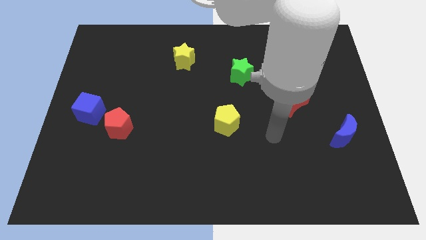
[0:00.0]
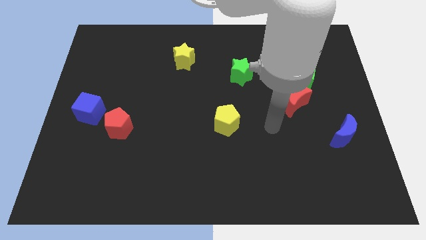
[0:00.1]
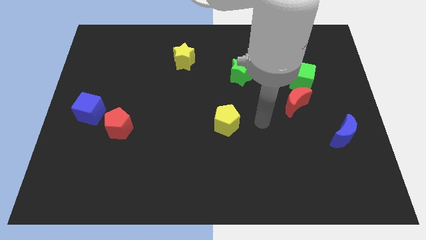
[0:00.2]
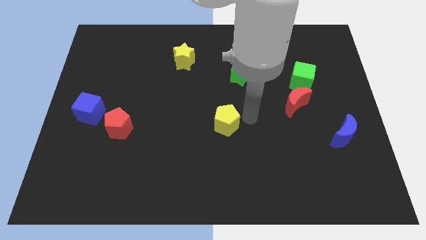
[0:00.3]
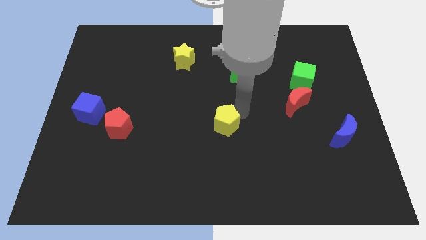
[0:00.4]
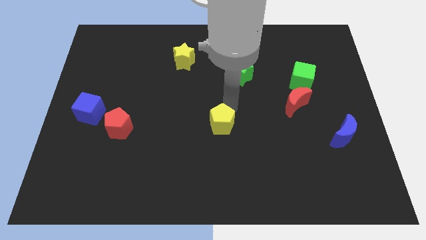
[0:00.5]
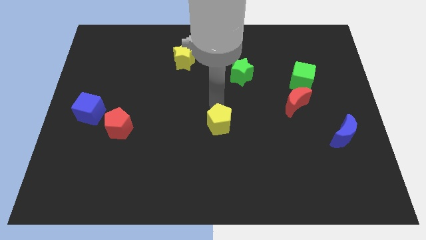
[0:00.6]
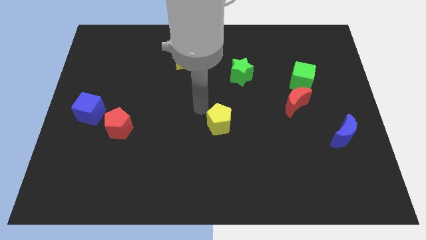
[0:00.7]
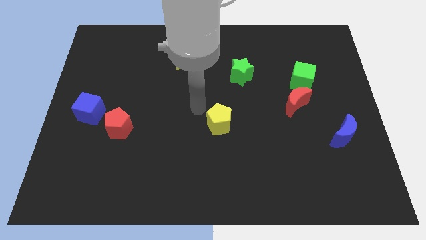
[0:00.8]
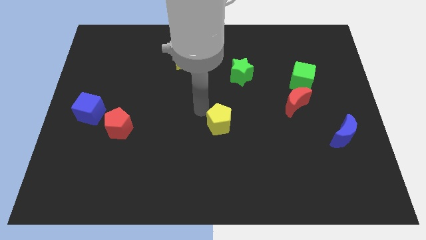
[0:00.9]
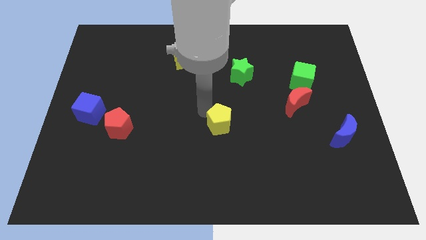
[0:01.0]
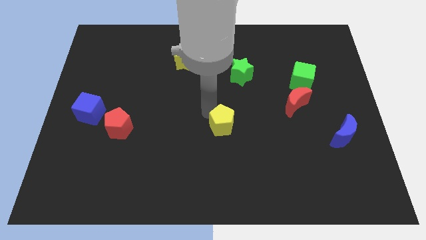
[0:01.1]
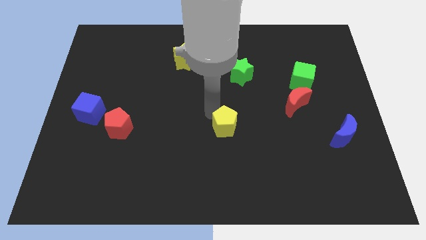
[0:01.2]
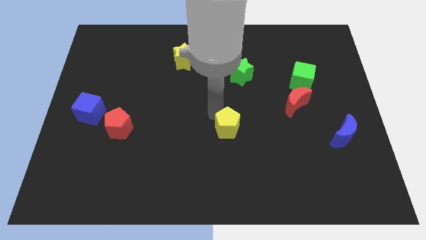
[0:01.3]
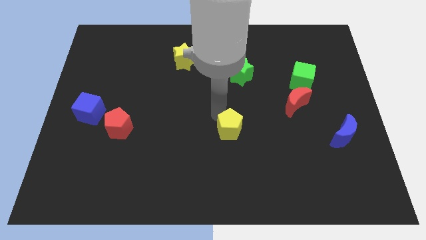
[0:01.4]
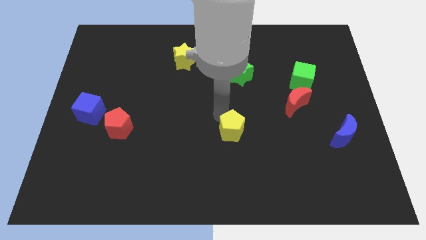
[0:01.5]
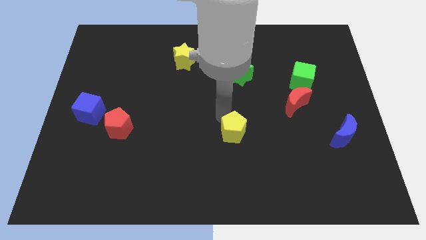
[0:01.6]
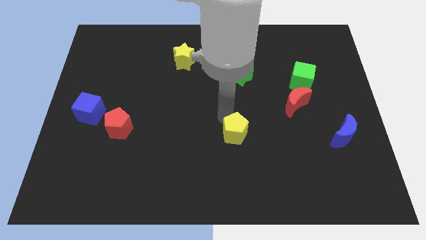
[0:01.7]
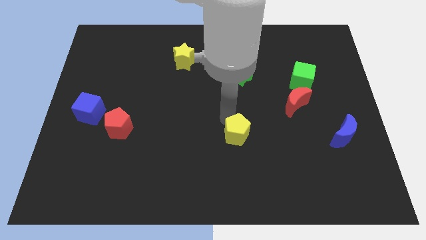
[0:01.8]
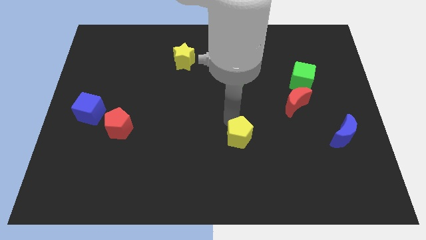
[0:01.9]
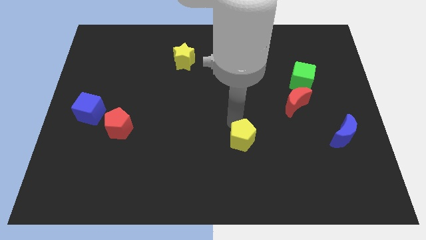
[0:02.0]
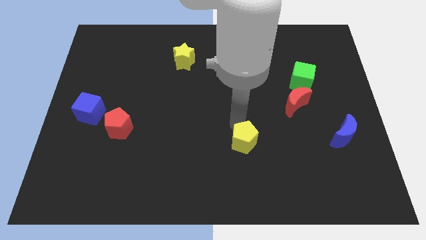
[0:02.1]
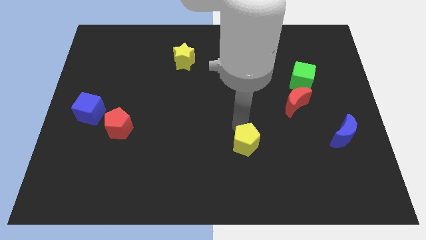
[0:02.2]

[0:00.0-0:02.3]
move the yellow pentagon a bit downwards and then to the right

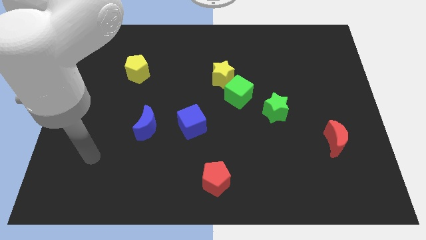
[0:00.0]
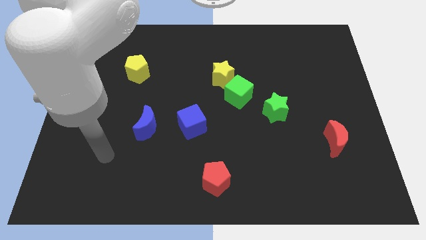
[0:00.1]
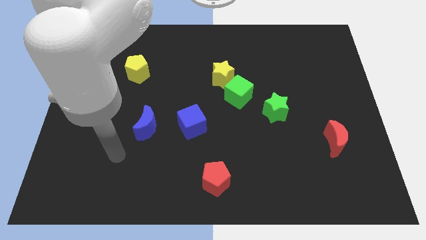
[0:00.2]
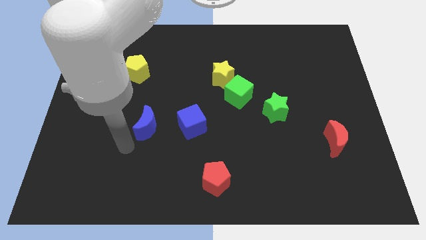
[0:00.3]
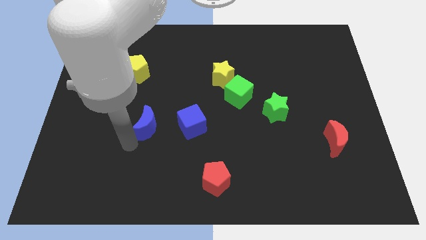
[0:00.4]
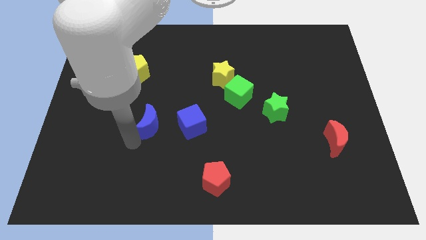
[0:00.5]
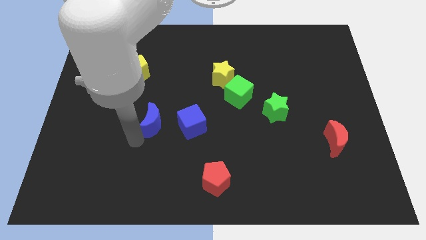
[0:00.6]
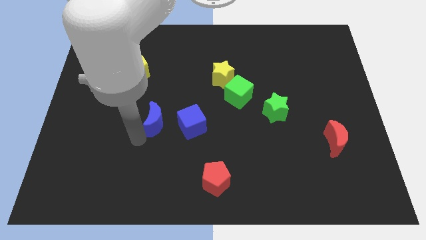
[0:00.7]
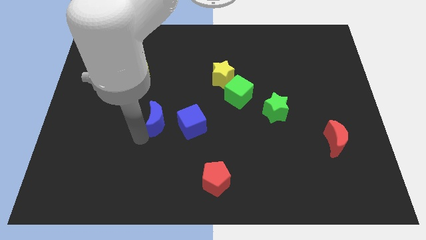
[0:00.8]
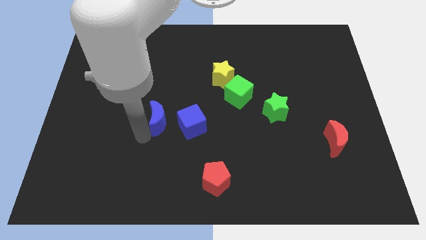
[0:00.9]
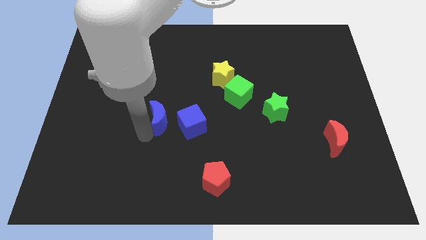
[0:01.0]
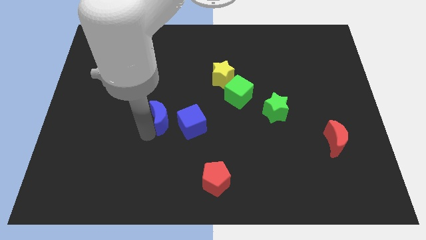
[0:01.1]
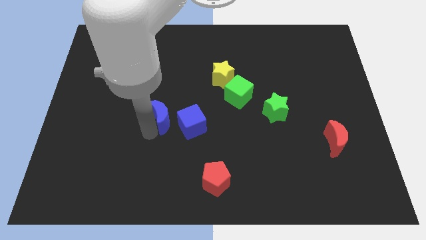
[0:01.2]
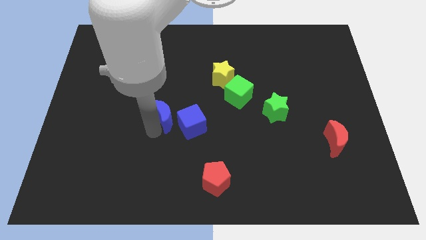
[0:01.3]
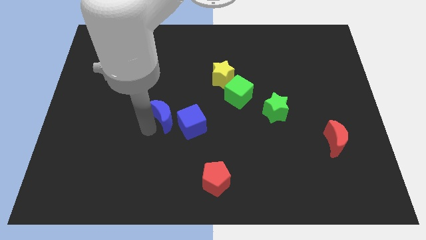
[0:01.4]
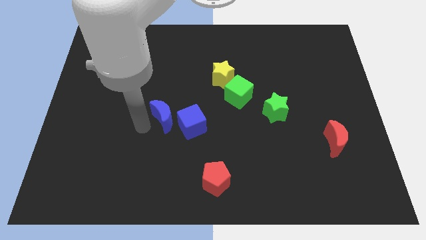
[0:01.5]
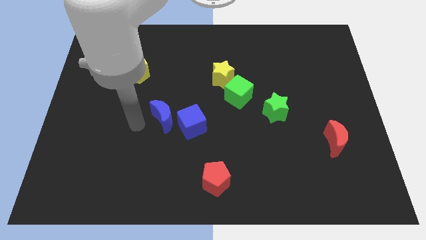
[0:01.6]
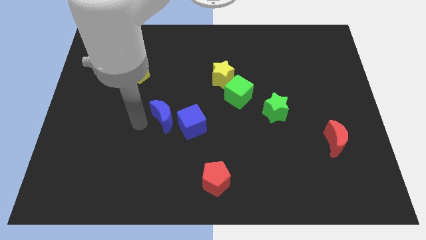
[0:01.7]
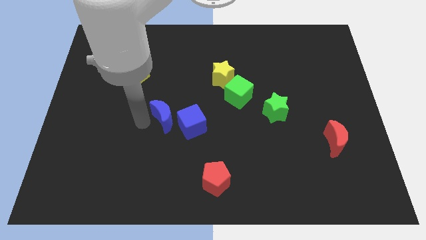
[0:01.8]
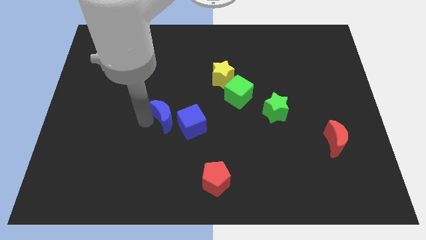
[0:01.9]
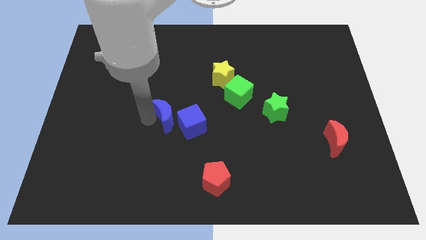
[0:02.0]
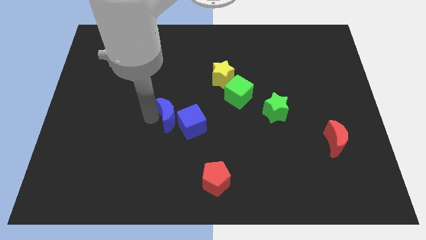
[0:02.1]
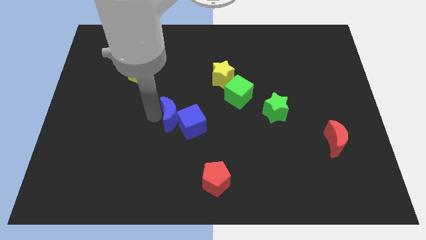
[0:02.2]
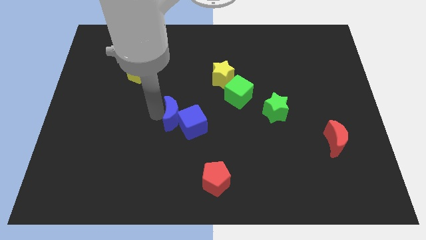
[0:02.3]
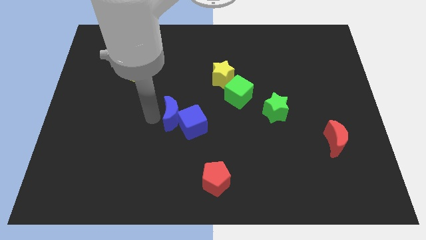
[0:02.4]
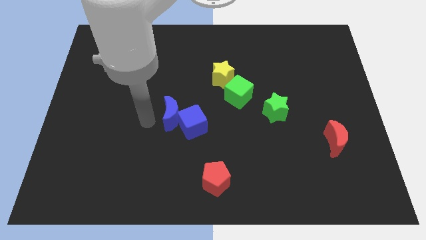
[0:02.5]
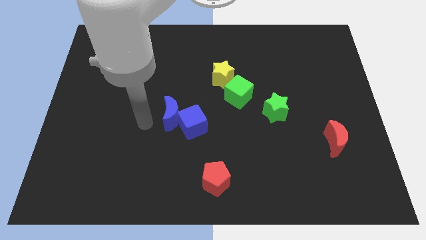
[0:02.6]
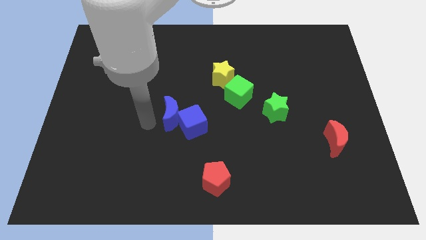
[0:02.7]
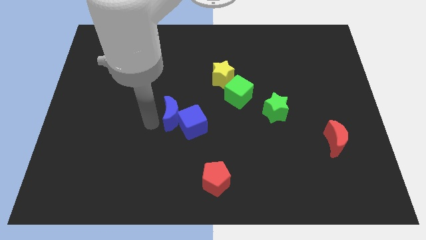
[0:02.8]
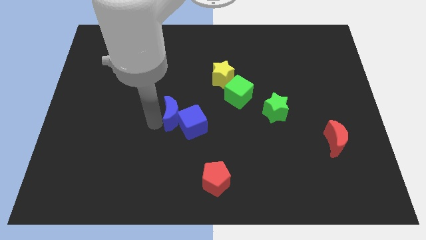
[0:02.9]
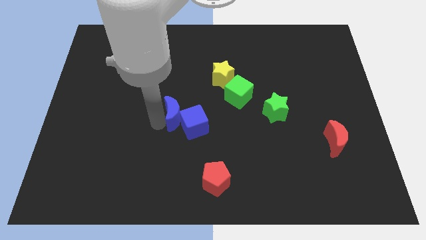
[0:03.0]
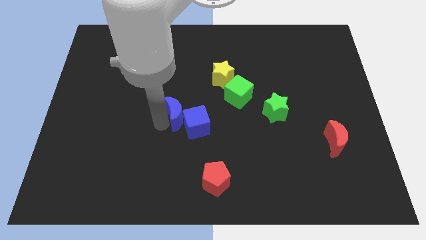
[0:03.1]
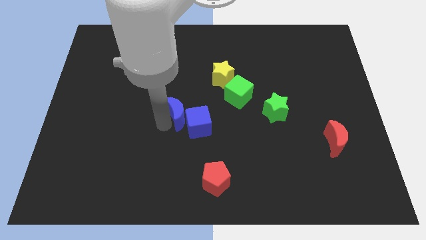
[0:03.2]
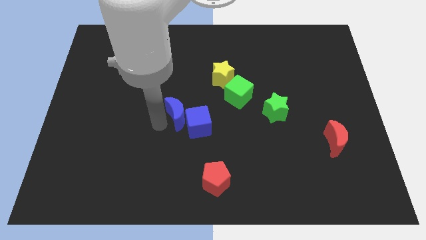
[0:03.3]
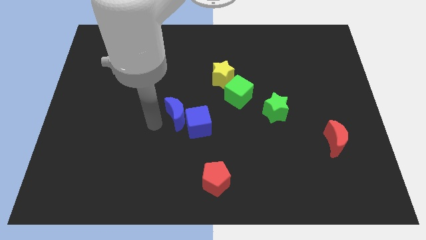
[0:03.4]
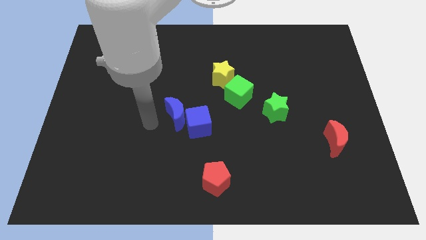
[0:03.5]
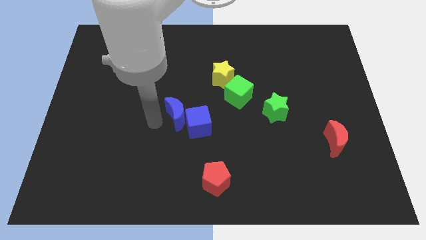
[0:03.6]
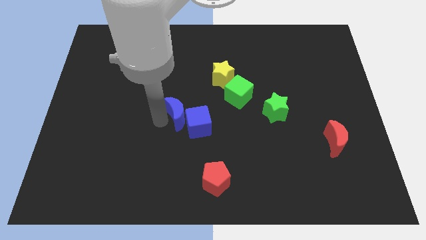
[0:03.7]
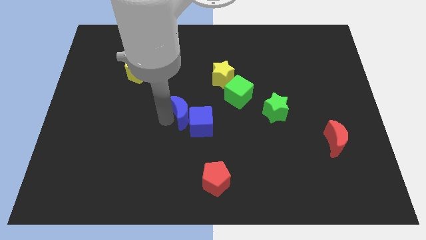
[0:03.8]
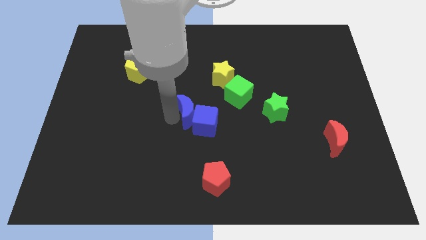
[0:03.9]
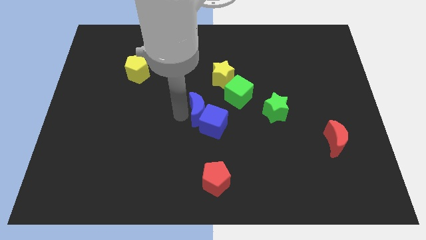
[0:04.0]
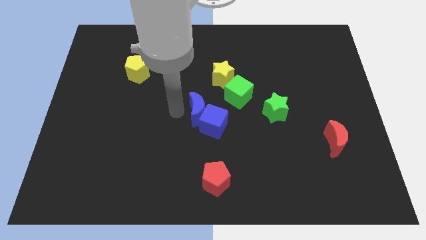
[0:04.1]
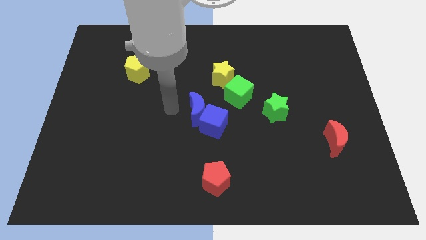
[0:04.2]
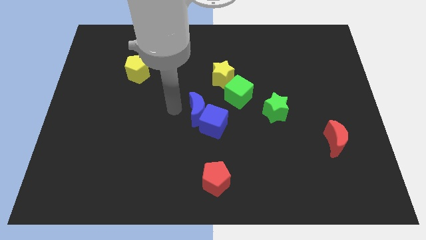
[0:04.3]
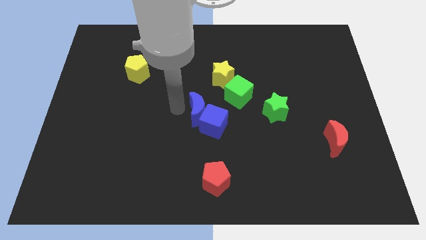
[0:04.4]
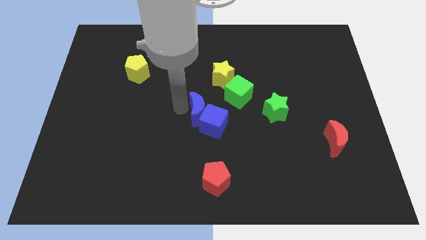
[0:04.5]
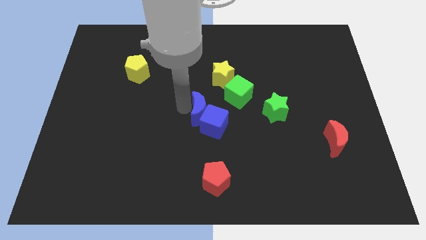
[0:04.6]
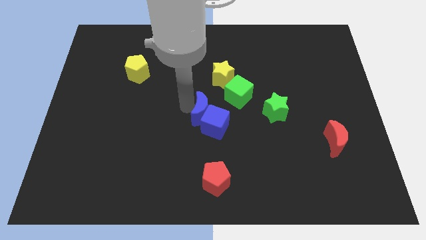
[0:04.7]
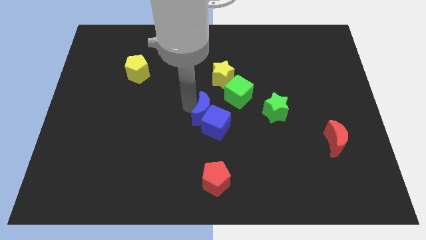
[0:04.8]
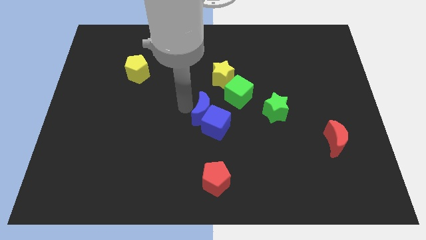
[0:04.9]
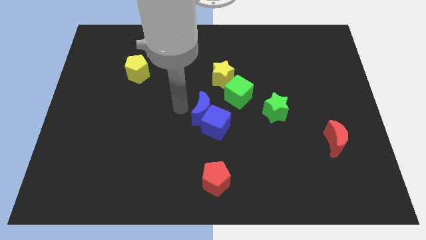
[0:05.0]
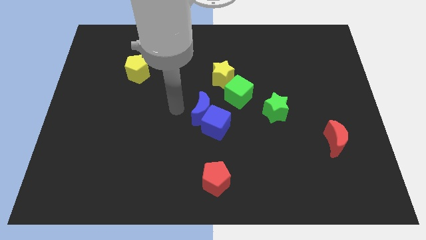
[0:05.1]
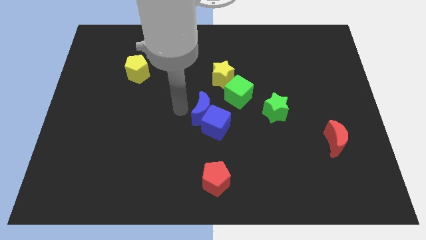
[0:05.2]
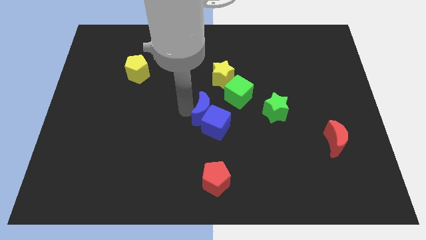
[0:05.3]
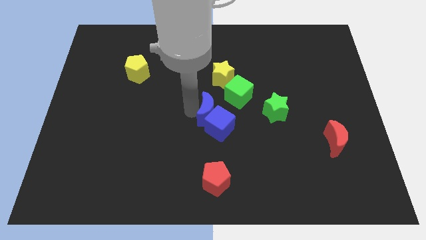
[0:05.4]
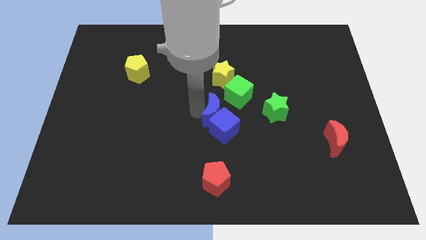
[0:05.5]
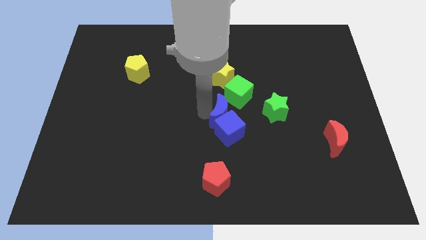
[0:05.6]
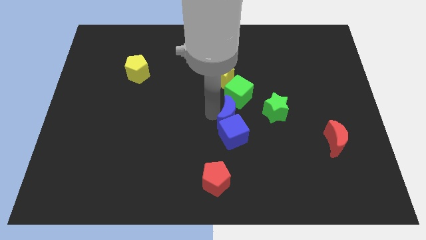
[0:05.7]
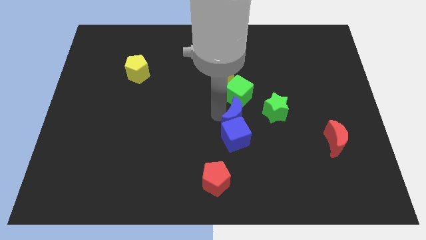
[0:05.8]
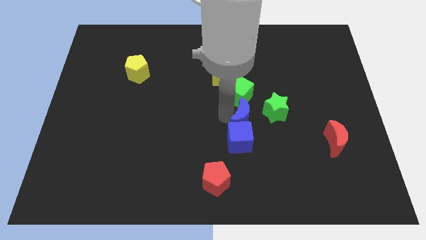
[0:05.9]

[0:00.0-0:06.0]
slide the blue moon right
